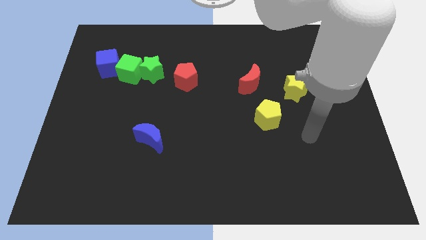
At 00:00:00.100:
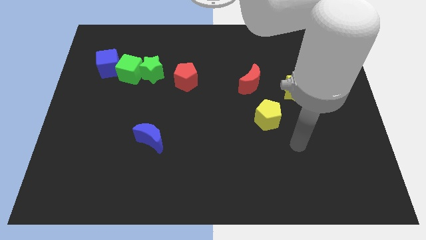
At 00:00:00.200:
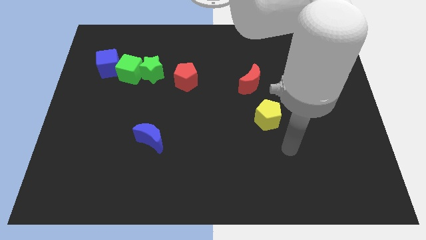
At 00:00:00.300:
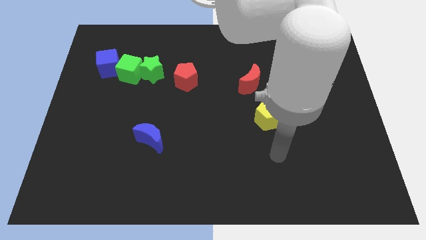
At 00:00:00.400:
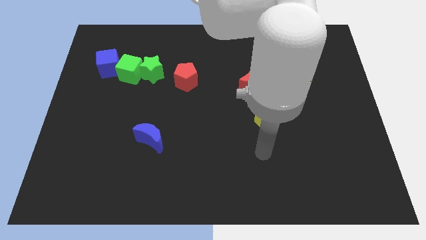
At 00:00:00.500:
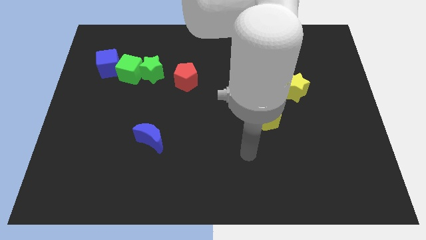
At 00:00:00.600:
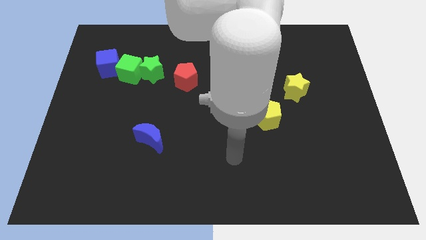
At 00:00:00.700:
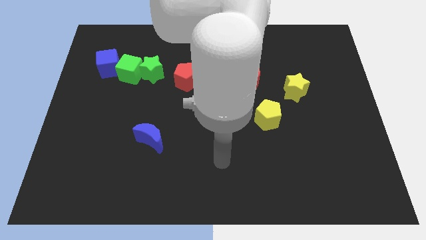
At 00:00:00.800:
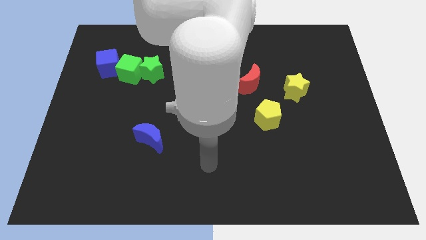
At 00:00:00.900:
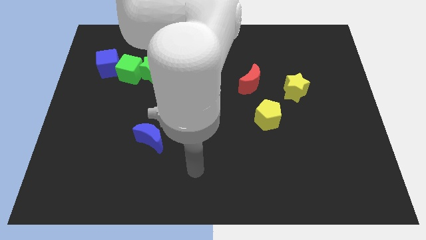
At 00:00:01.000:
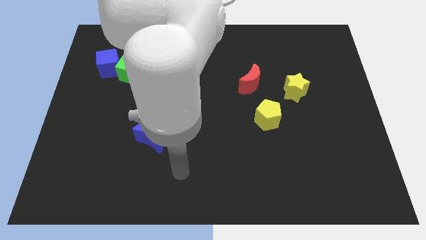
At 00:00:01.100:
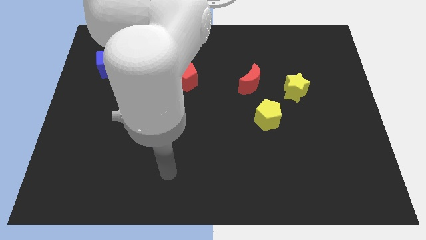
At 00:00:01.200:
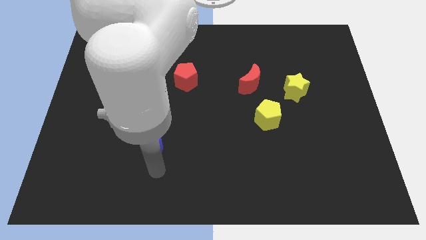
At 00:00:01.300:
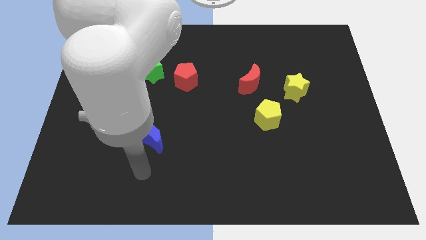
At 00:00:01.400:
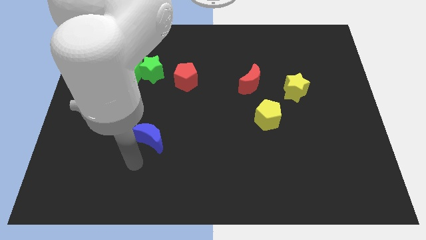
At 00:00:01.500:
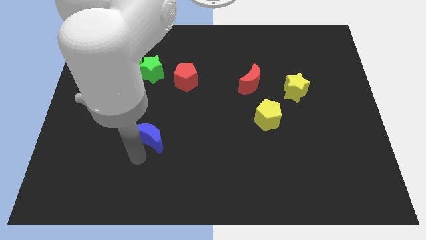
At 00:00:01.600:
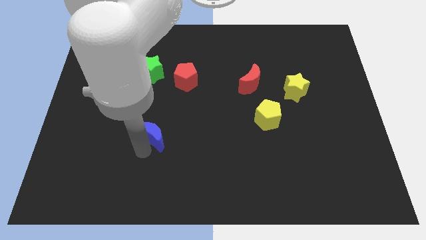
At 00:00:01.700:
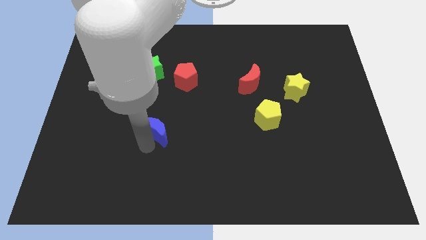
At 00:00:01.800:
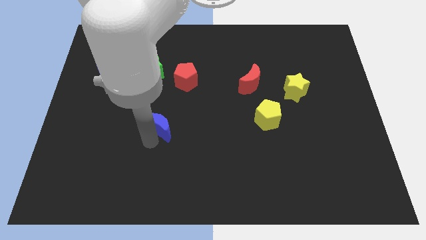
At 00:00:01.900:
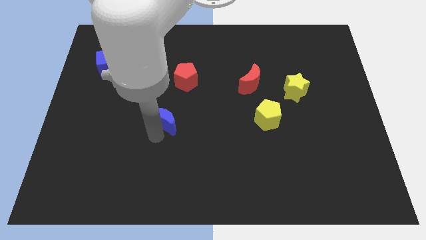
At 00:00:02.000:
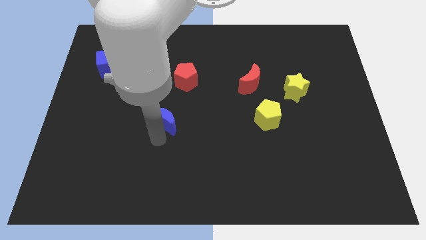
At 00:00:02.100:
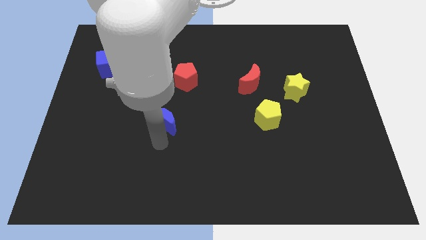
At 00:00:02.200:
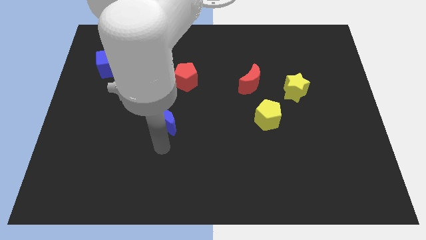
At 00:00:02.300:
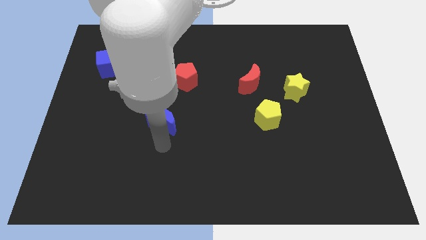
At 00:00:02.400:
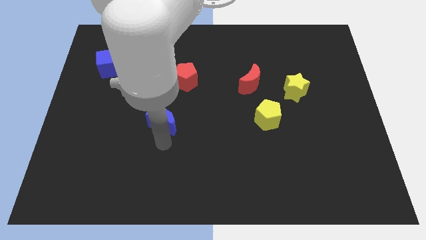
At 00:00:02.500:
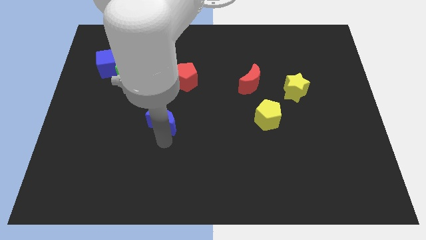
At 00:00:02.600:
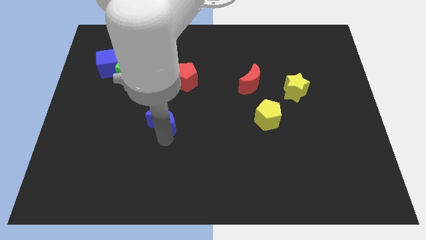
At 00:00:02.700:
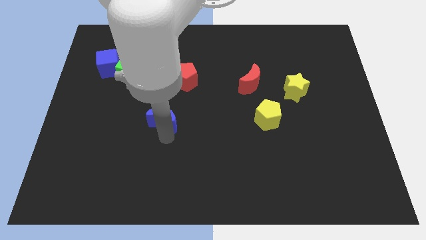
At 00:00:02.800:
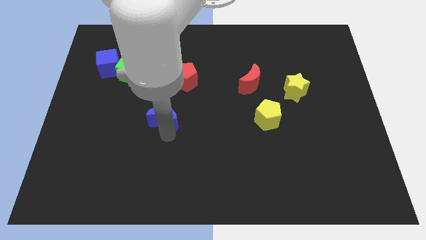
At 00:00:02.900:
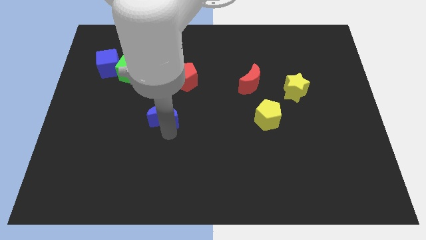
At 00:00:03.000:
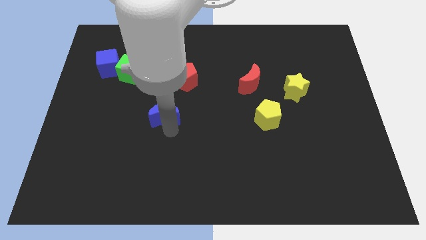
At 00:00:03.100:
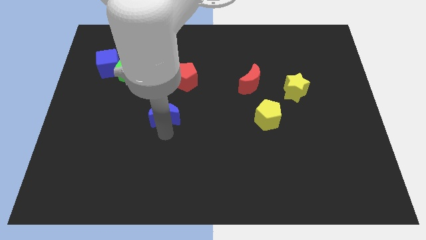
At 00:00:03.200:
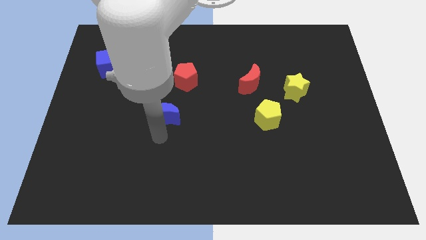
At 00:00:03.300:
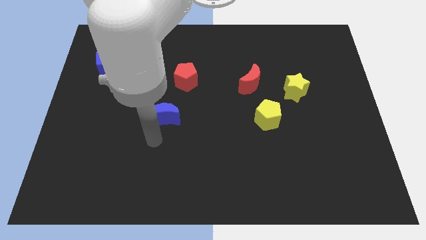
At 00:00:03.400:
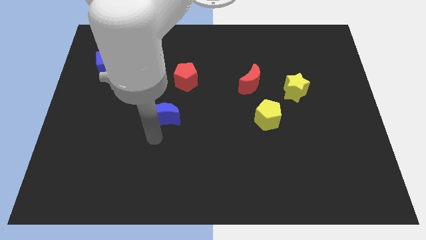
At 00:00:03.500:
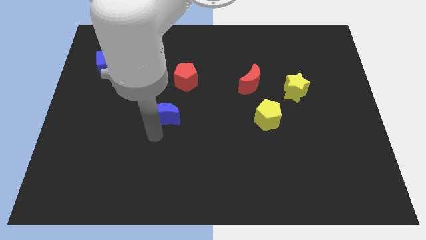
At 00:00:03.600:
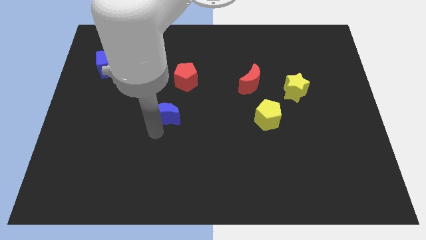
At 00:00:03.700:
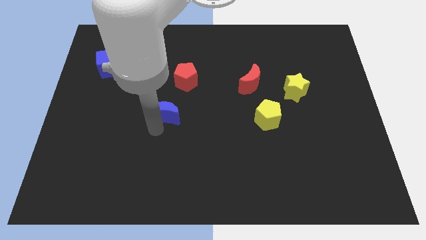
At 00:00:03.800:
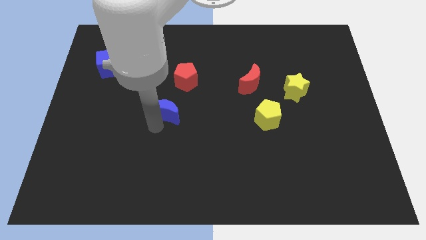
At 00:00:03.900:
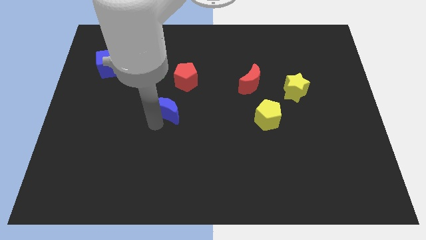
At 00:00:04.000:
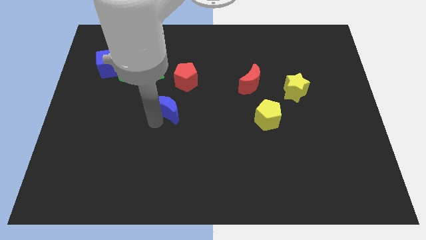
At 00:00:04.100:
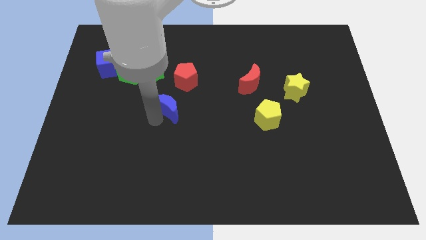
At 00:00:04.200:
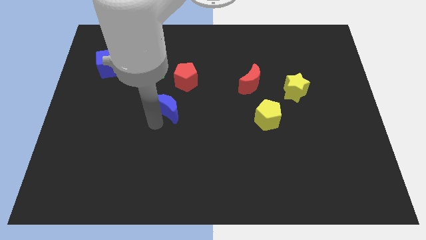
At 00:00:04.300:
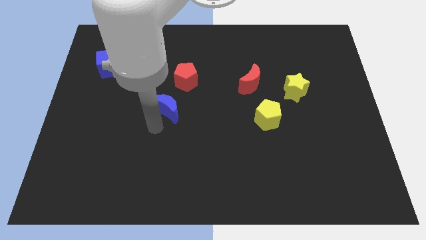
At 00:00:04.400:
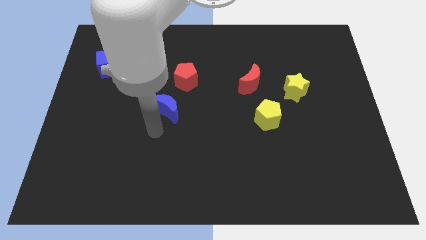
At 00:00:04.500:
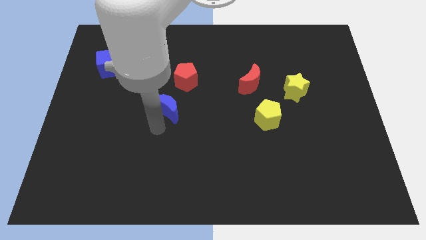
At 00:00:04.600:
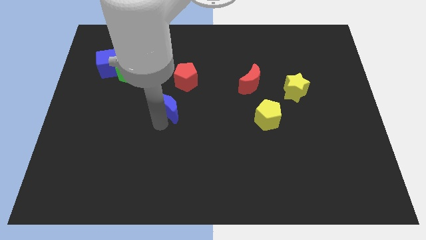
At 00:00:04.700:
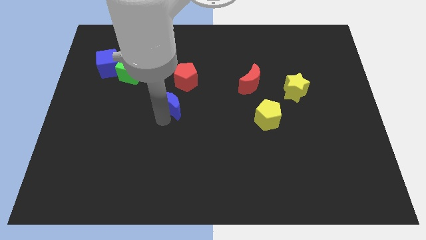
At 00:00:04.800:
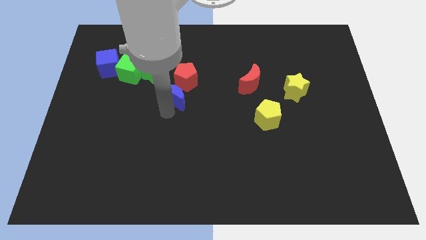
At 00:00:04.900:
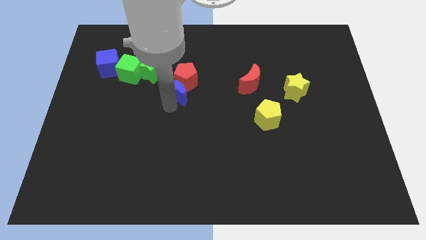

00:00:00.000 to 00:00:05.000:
slide the blue moon next to the red pentagon

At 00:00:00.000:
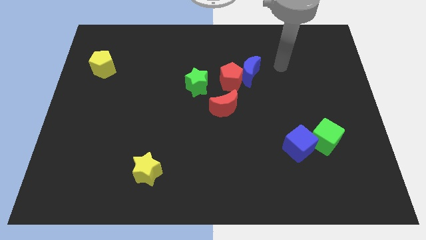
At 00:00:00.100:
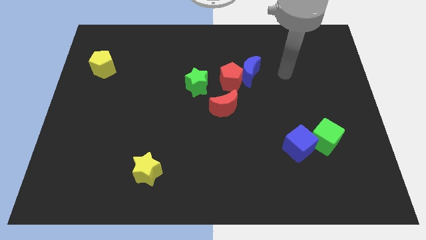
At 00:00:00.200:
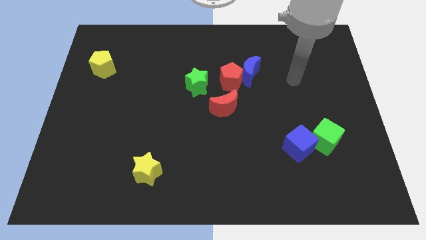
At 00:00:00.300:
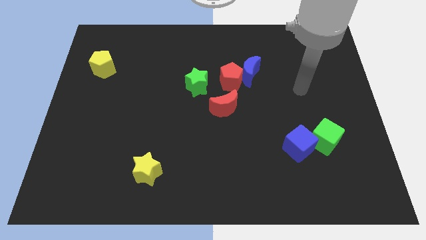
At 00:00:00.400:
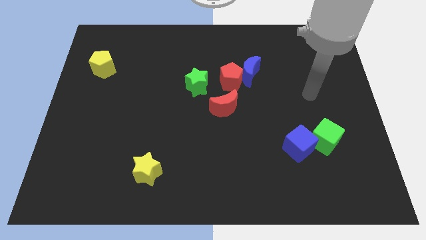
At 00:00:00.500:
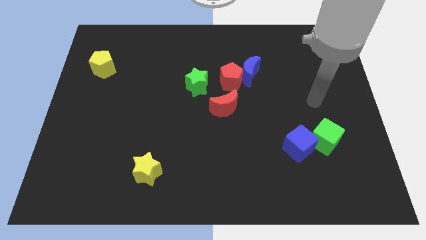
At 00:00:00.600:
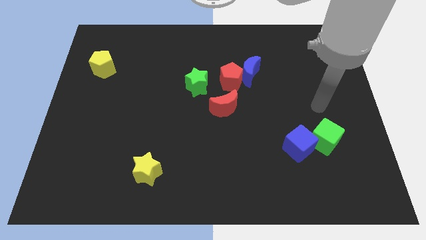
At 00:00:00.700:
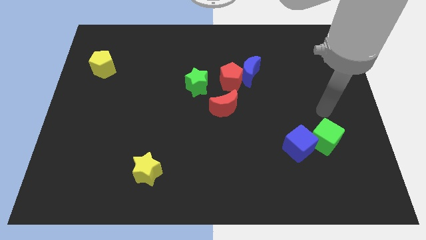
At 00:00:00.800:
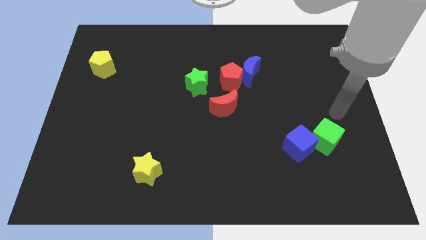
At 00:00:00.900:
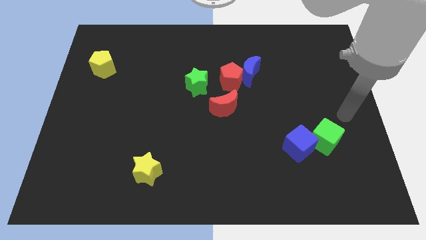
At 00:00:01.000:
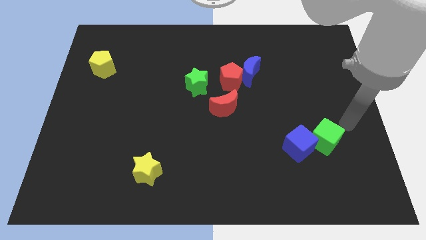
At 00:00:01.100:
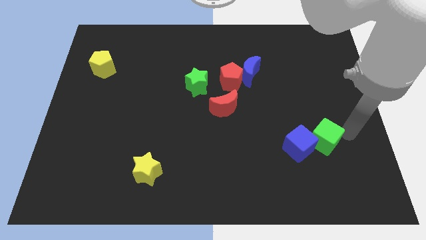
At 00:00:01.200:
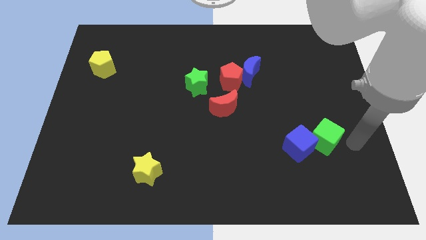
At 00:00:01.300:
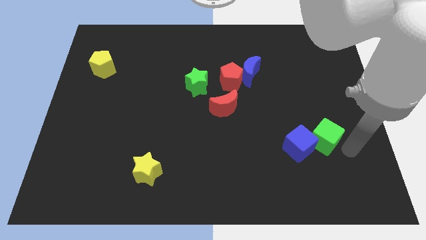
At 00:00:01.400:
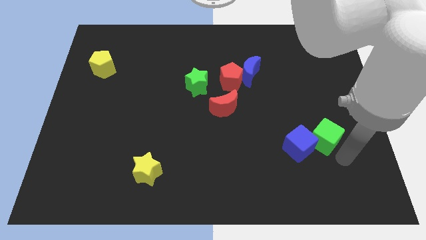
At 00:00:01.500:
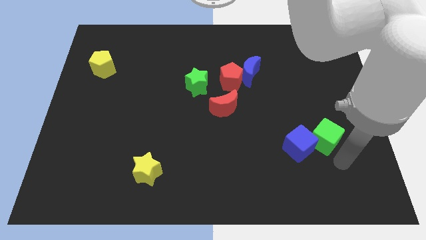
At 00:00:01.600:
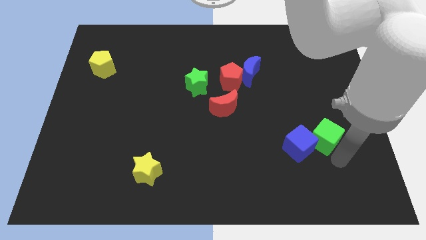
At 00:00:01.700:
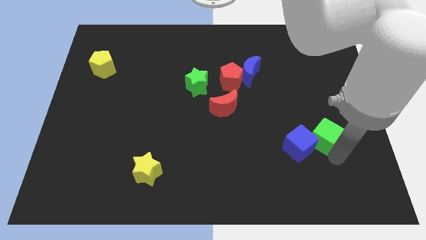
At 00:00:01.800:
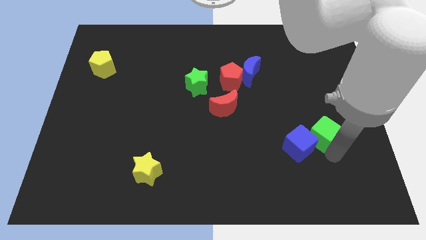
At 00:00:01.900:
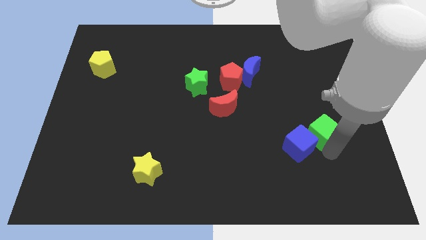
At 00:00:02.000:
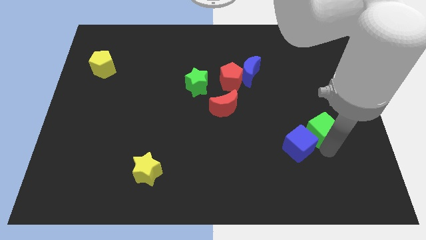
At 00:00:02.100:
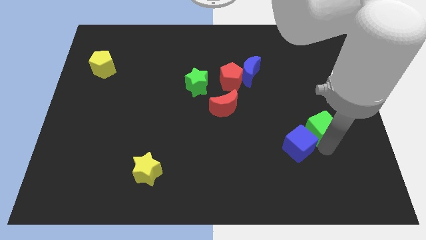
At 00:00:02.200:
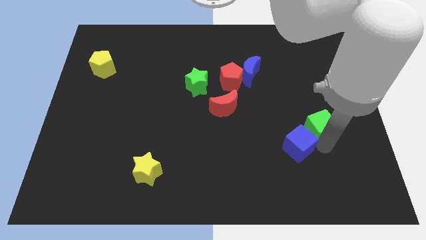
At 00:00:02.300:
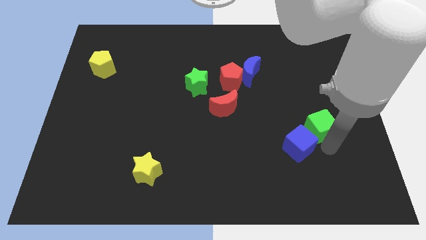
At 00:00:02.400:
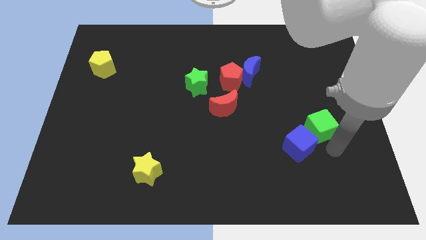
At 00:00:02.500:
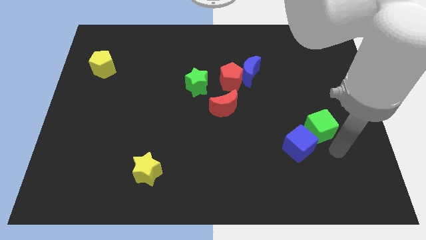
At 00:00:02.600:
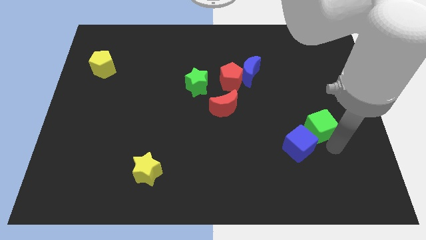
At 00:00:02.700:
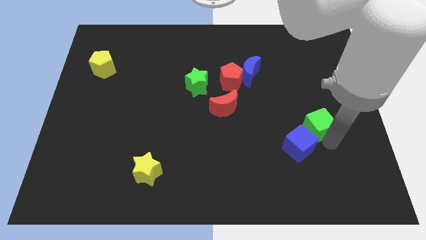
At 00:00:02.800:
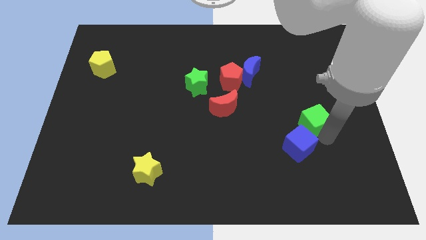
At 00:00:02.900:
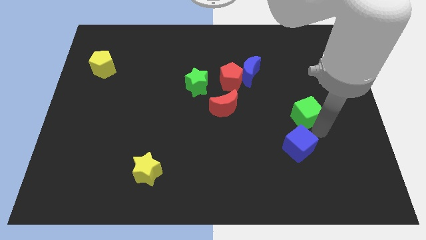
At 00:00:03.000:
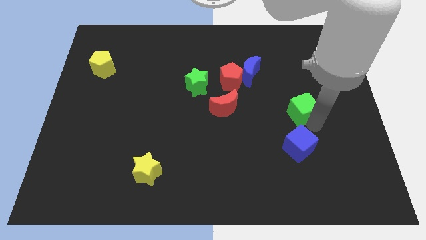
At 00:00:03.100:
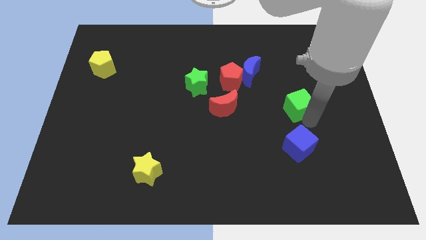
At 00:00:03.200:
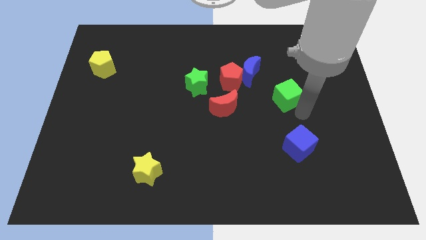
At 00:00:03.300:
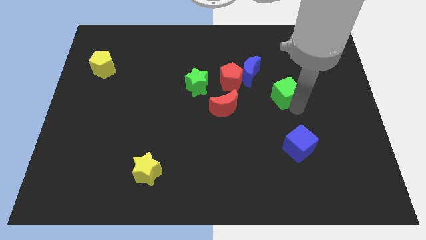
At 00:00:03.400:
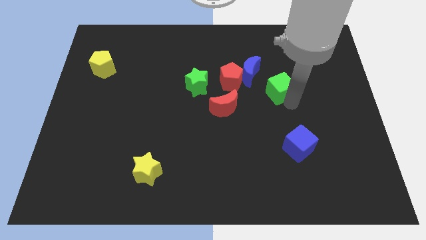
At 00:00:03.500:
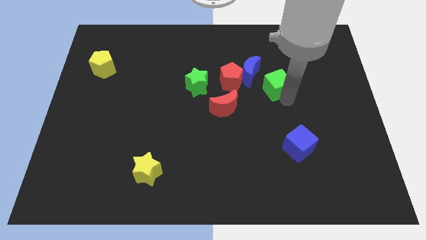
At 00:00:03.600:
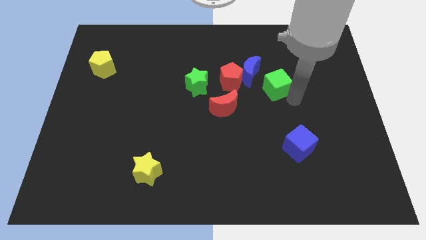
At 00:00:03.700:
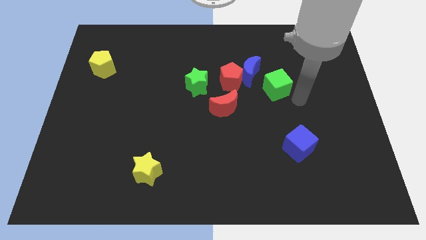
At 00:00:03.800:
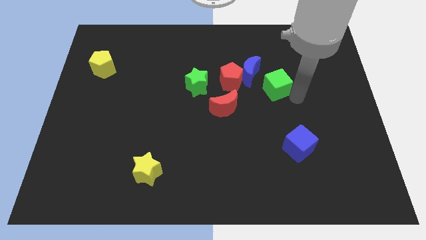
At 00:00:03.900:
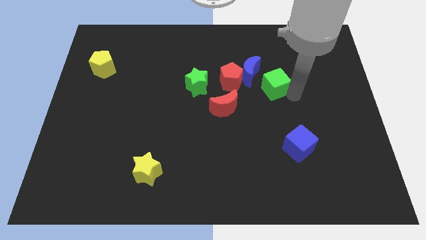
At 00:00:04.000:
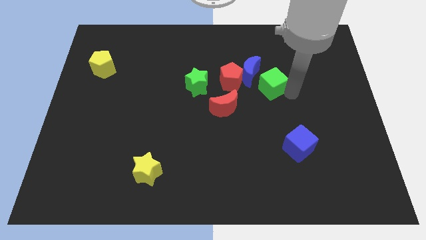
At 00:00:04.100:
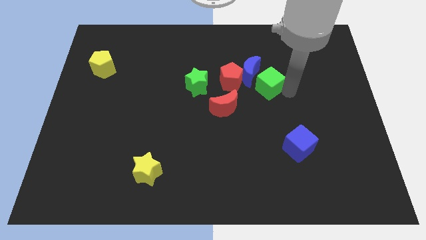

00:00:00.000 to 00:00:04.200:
move the green cube to the blue moon
